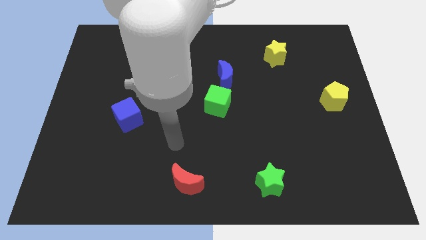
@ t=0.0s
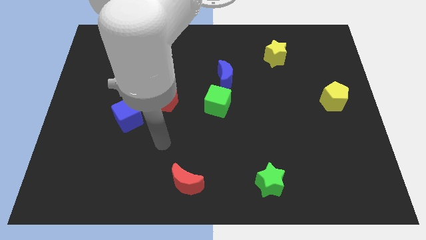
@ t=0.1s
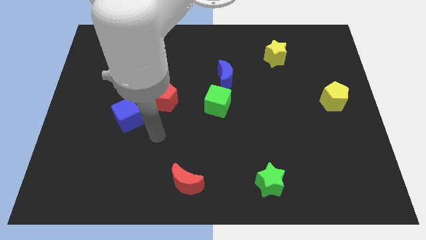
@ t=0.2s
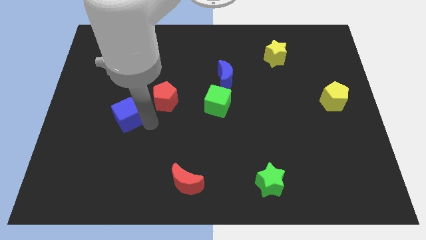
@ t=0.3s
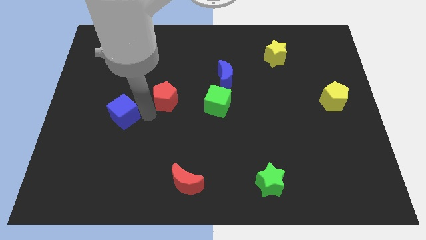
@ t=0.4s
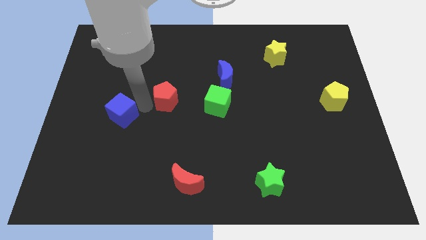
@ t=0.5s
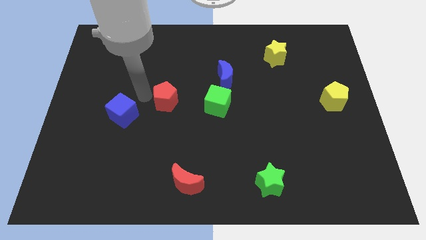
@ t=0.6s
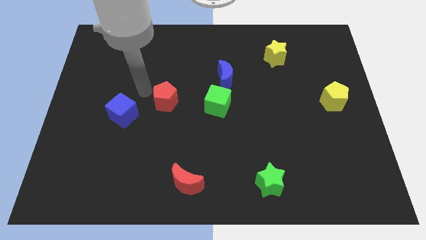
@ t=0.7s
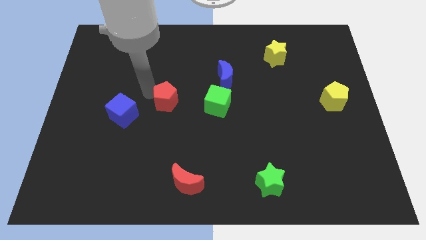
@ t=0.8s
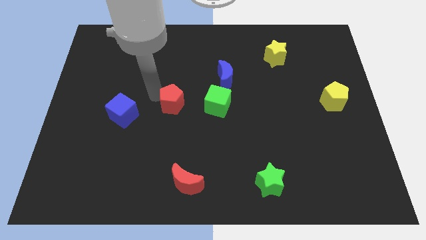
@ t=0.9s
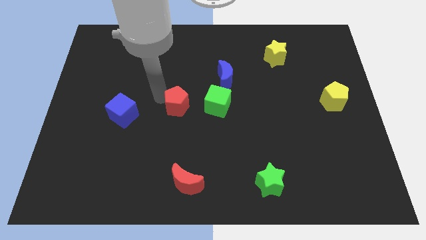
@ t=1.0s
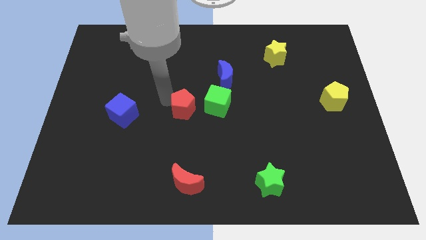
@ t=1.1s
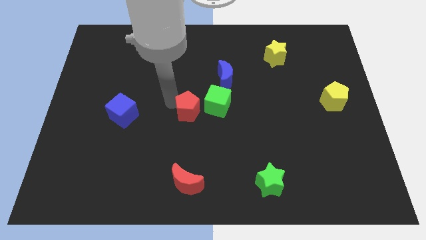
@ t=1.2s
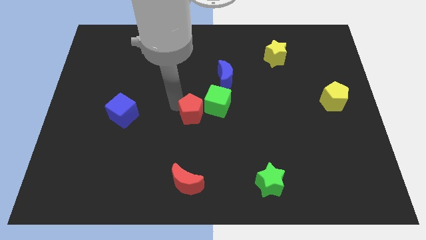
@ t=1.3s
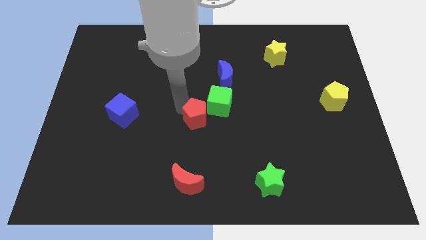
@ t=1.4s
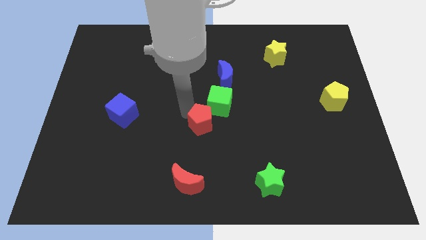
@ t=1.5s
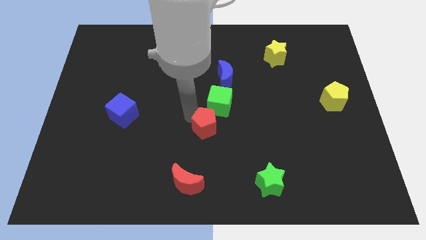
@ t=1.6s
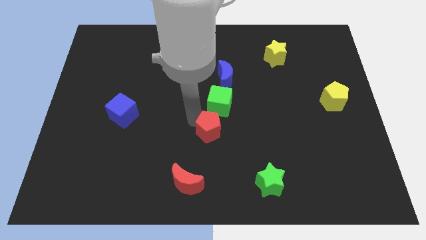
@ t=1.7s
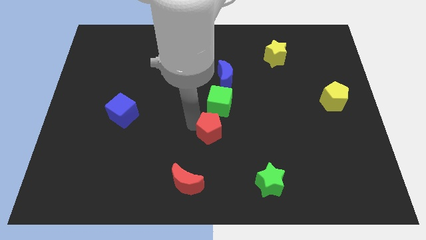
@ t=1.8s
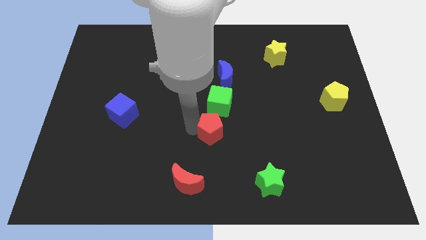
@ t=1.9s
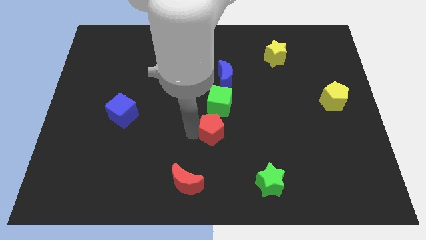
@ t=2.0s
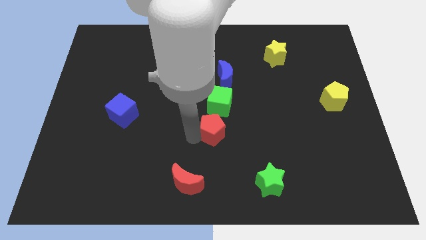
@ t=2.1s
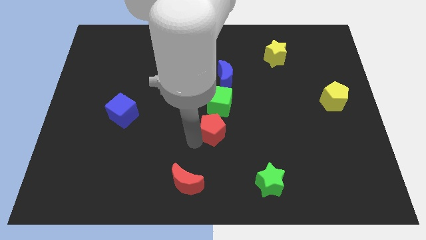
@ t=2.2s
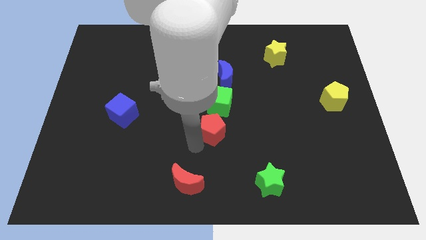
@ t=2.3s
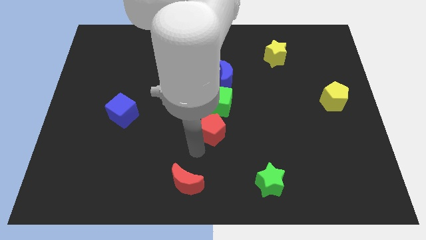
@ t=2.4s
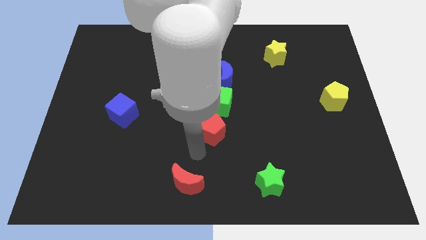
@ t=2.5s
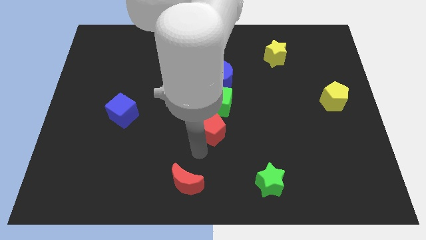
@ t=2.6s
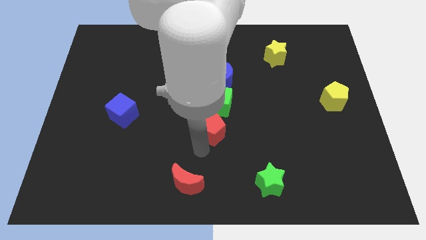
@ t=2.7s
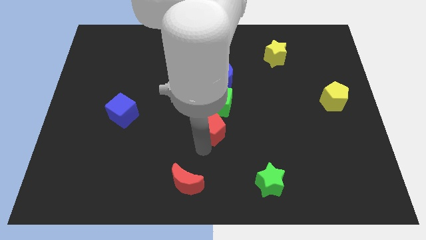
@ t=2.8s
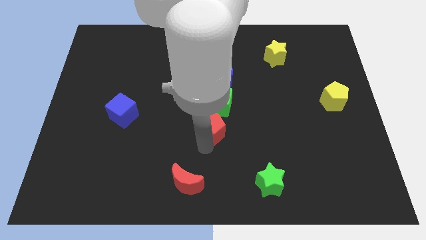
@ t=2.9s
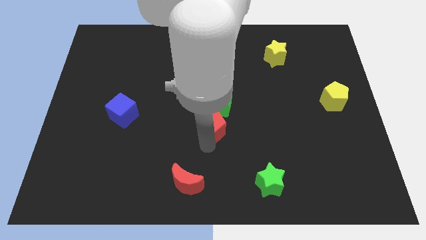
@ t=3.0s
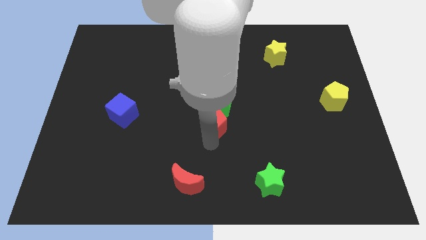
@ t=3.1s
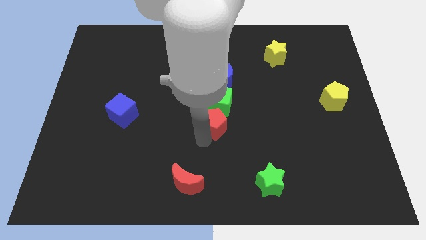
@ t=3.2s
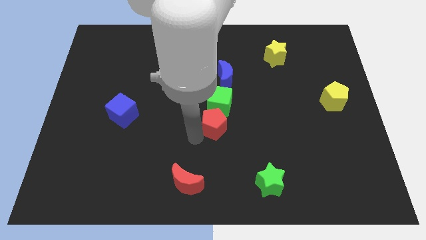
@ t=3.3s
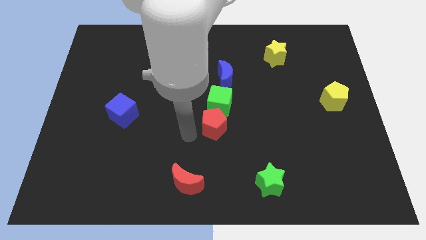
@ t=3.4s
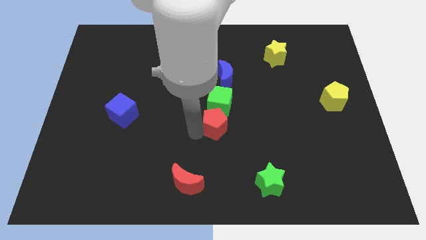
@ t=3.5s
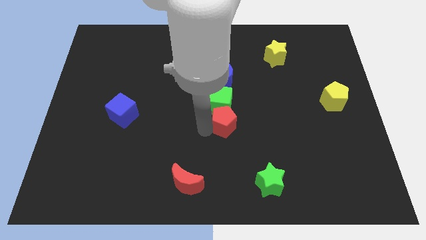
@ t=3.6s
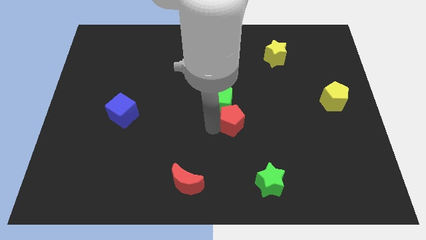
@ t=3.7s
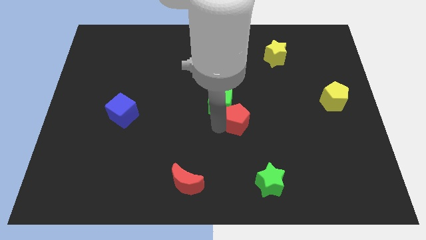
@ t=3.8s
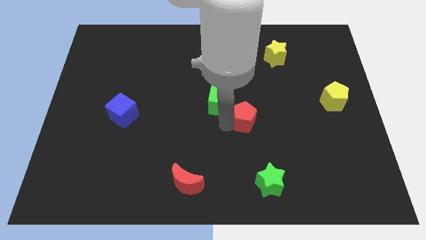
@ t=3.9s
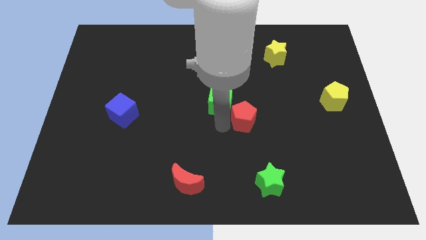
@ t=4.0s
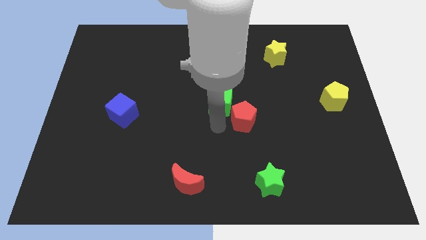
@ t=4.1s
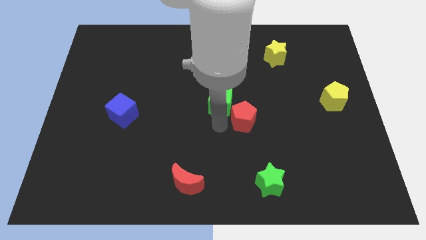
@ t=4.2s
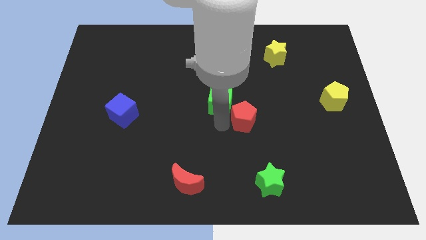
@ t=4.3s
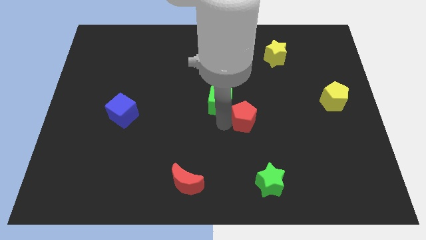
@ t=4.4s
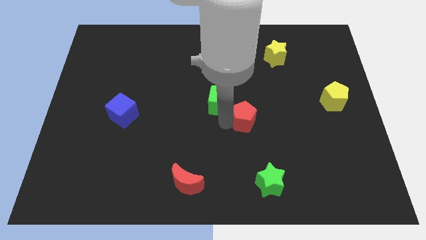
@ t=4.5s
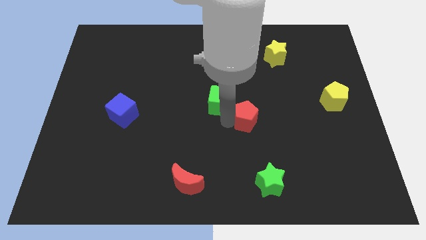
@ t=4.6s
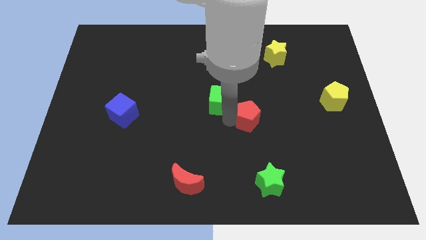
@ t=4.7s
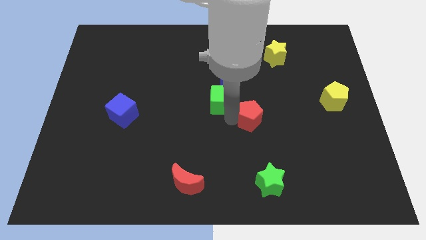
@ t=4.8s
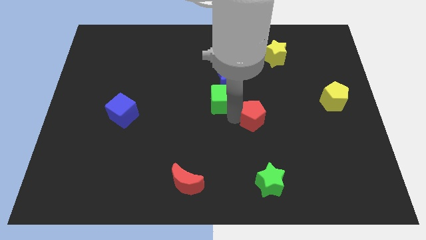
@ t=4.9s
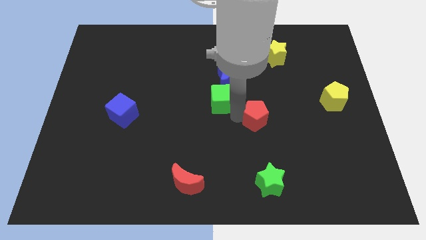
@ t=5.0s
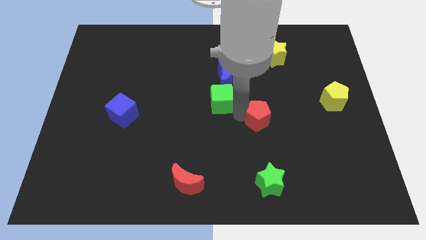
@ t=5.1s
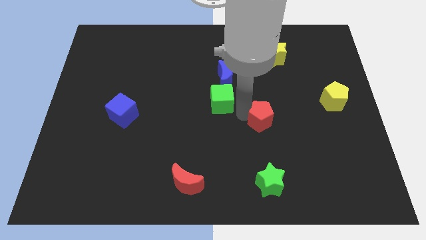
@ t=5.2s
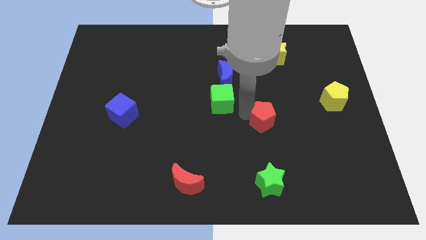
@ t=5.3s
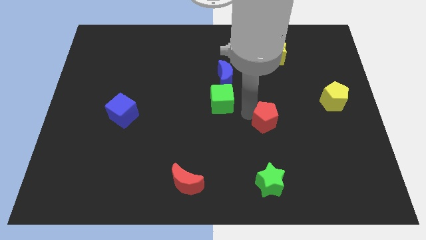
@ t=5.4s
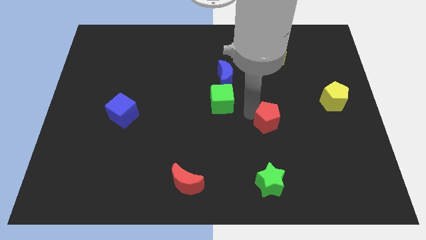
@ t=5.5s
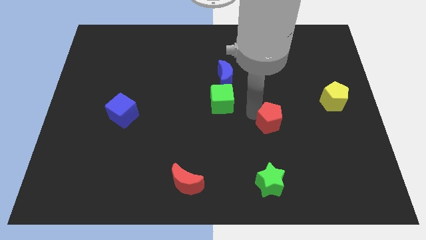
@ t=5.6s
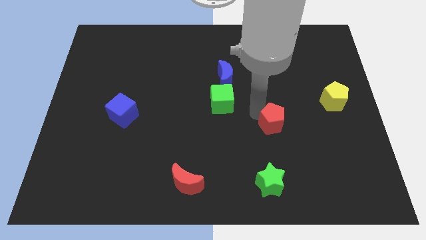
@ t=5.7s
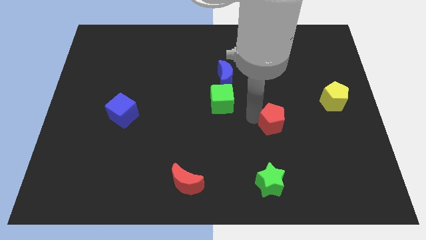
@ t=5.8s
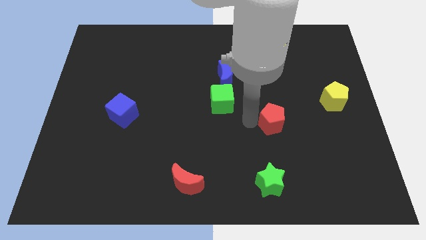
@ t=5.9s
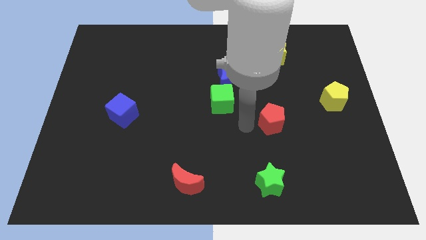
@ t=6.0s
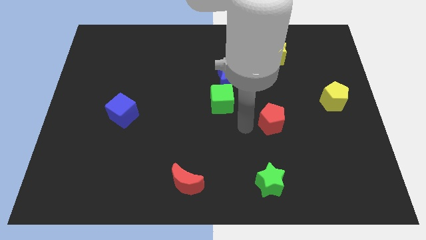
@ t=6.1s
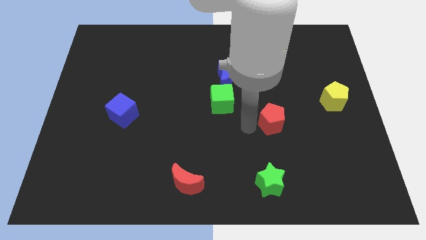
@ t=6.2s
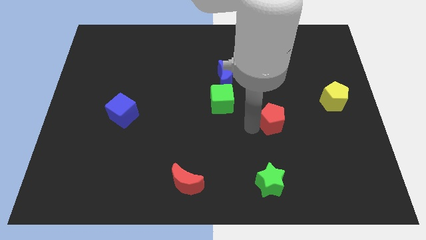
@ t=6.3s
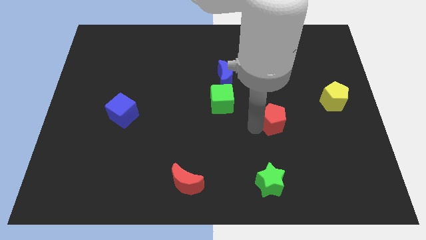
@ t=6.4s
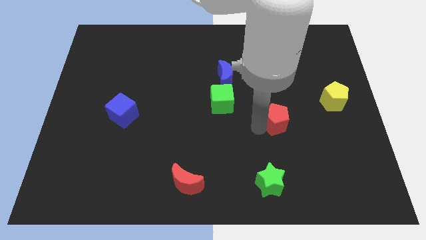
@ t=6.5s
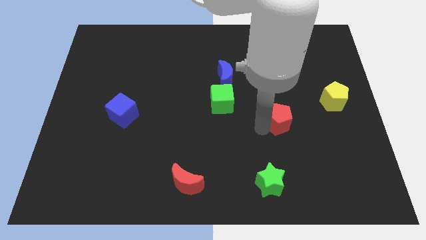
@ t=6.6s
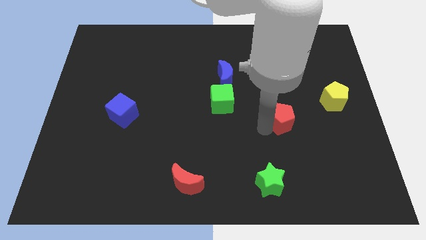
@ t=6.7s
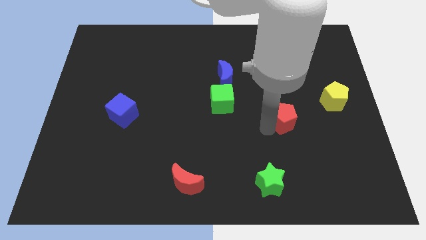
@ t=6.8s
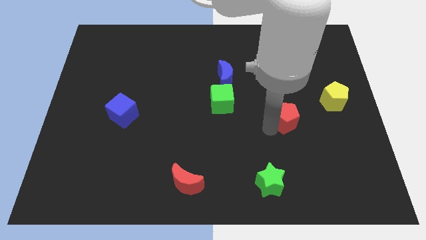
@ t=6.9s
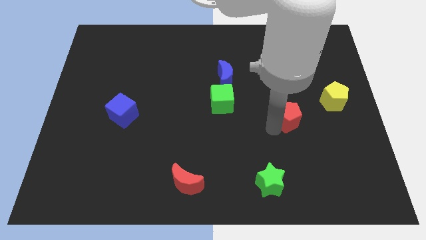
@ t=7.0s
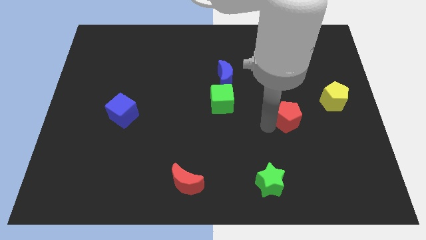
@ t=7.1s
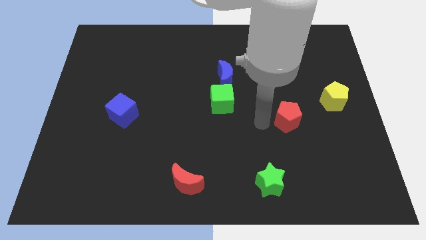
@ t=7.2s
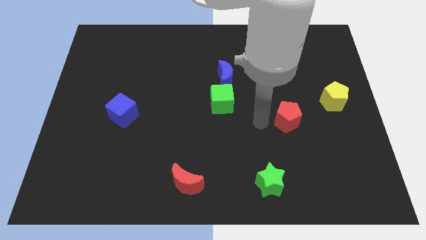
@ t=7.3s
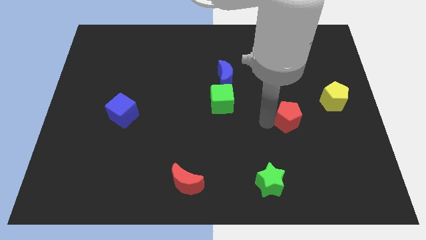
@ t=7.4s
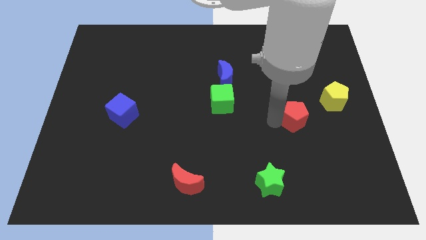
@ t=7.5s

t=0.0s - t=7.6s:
push the red pentagon to the bottom left side of the yellow pentagon
